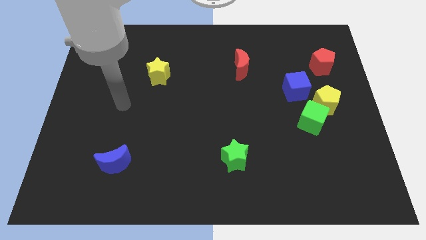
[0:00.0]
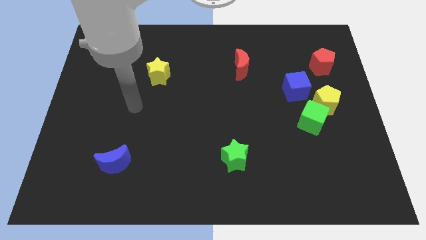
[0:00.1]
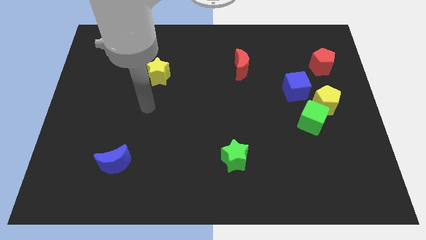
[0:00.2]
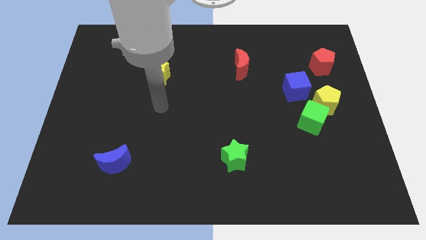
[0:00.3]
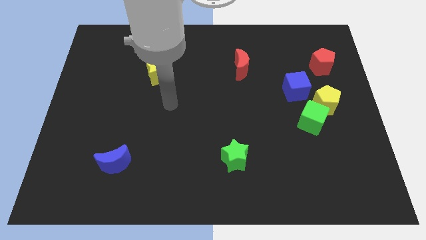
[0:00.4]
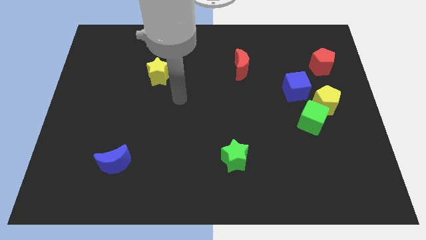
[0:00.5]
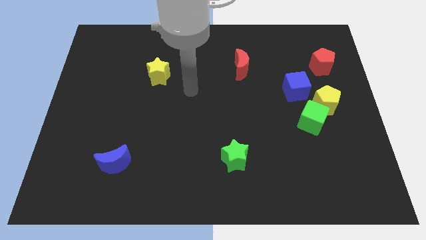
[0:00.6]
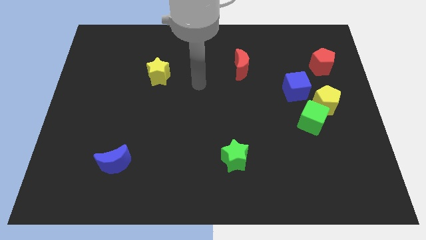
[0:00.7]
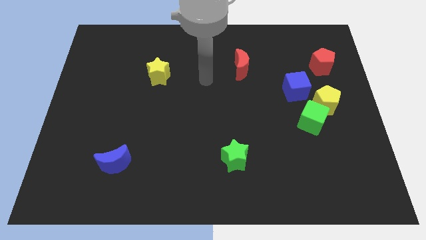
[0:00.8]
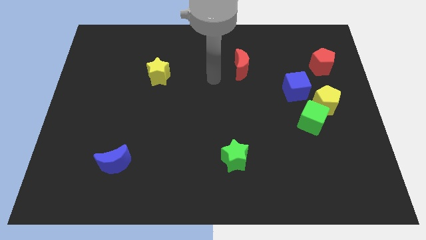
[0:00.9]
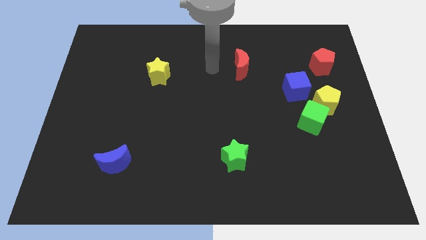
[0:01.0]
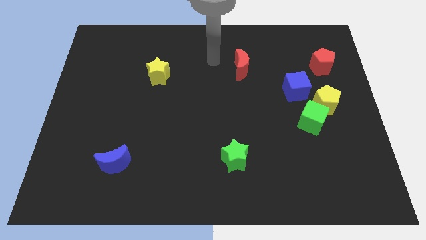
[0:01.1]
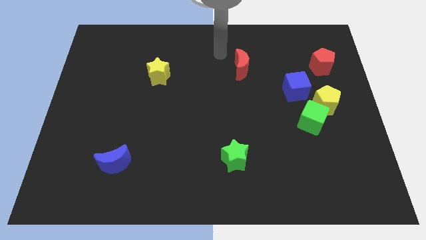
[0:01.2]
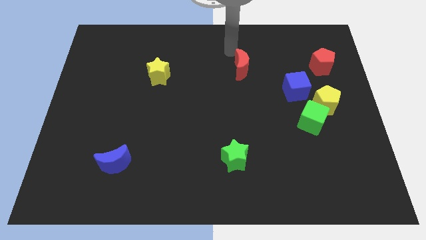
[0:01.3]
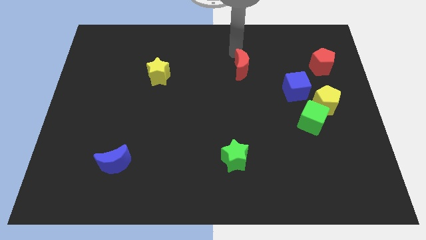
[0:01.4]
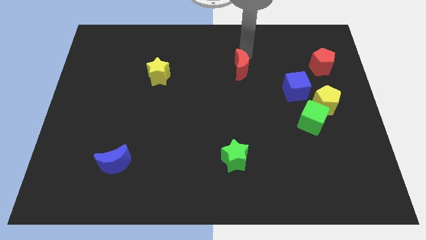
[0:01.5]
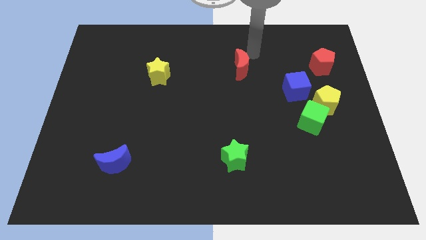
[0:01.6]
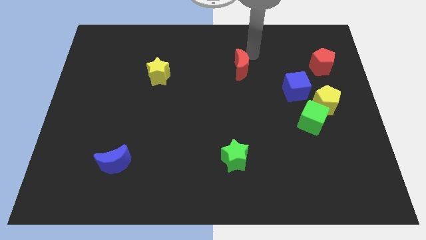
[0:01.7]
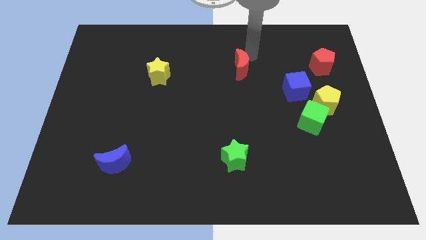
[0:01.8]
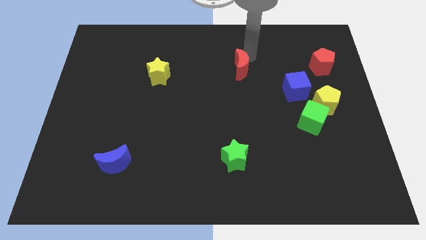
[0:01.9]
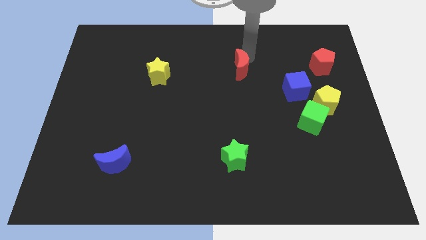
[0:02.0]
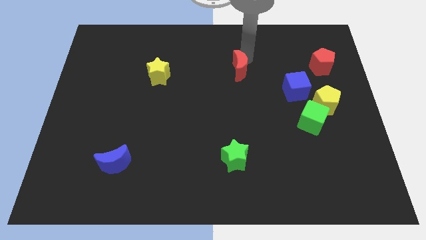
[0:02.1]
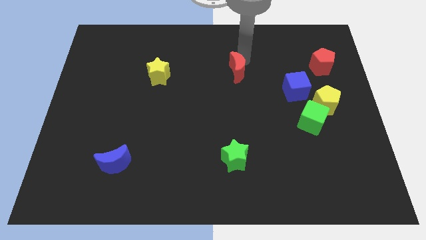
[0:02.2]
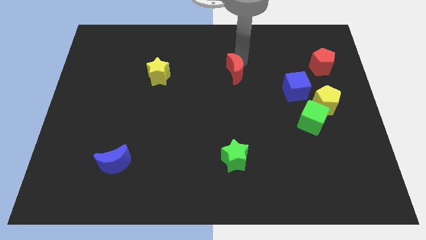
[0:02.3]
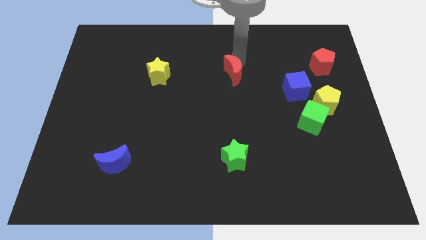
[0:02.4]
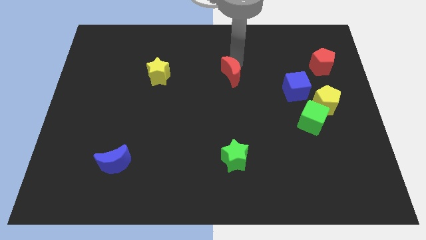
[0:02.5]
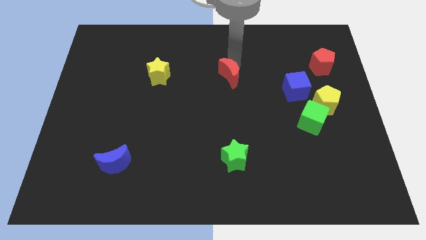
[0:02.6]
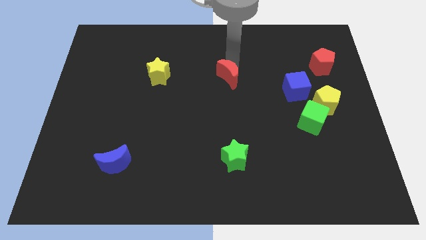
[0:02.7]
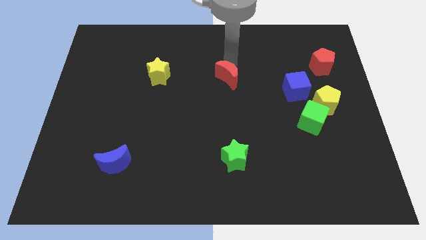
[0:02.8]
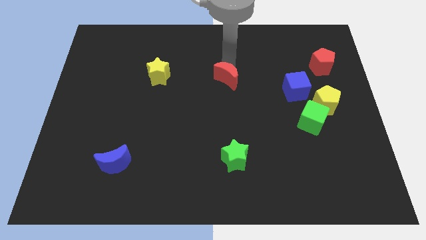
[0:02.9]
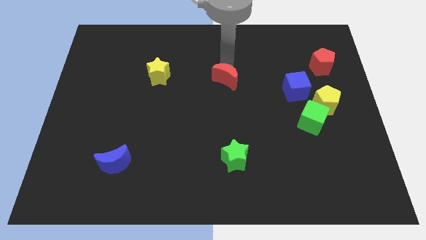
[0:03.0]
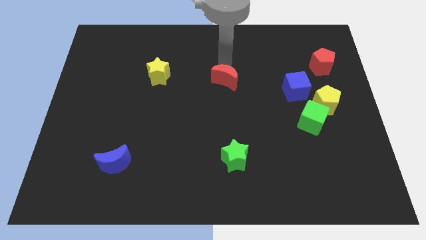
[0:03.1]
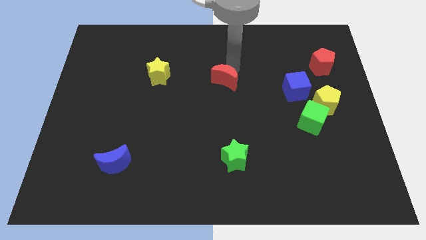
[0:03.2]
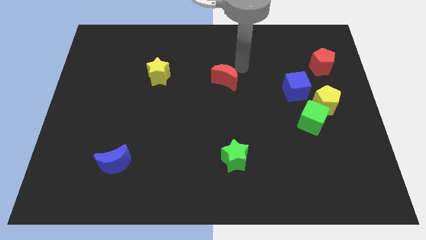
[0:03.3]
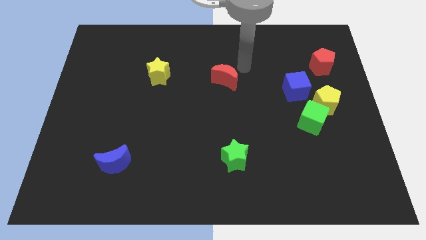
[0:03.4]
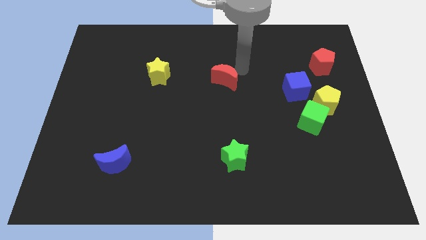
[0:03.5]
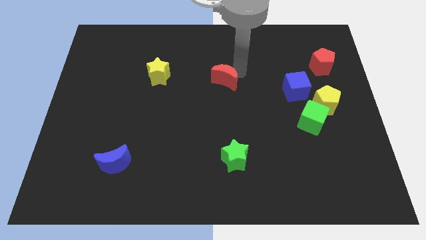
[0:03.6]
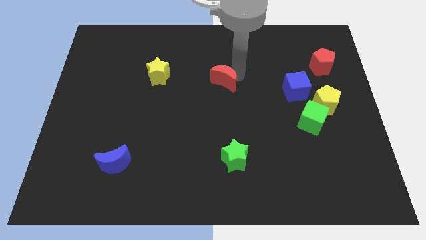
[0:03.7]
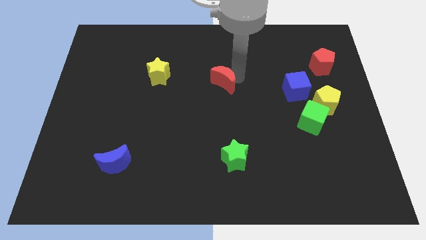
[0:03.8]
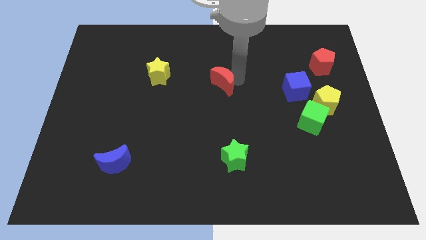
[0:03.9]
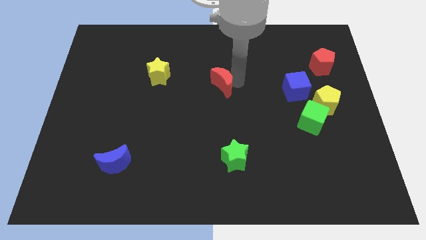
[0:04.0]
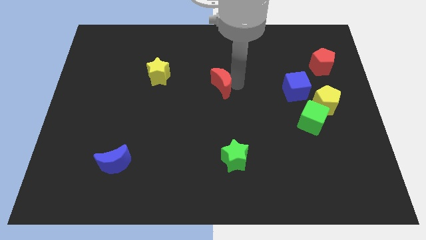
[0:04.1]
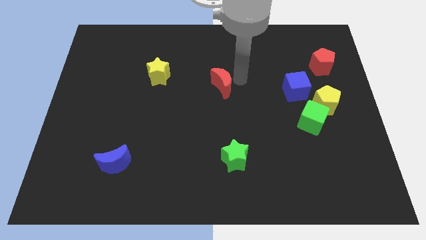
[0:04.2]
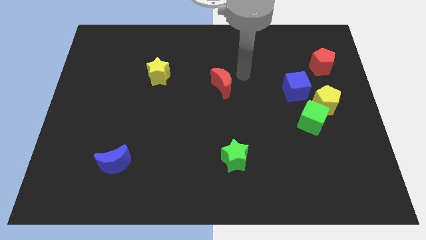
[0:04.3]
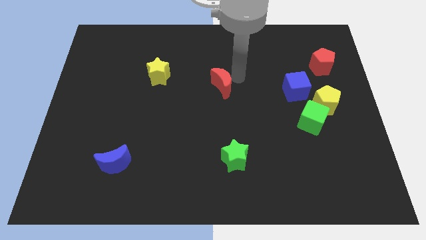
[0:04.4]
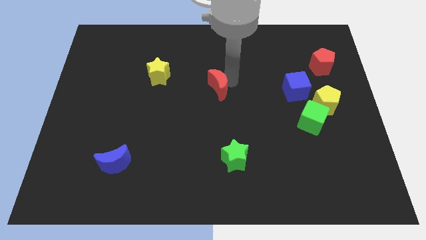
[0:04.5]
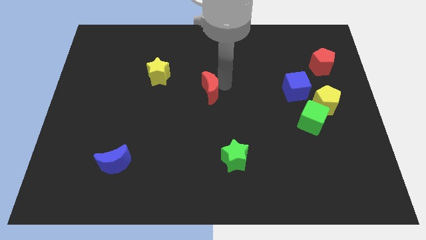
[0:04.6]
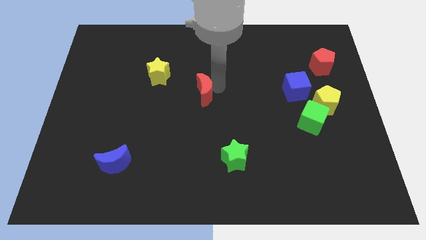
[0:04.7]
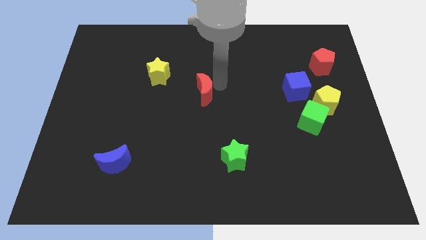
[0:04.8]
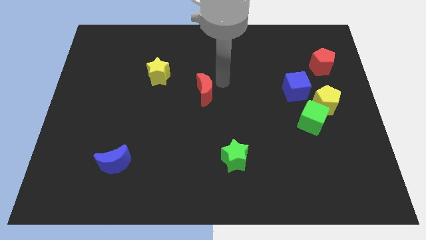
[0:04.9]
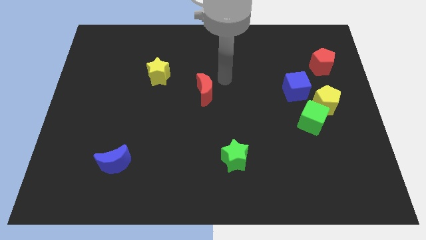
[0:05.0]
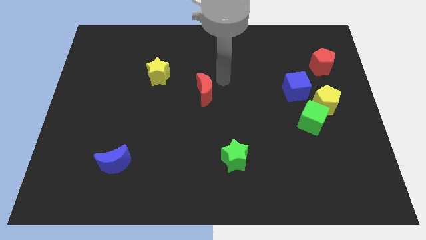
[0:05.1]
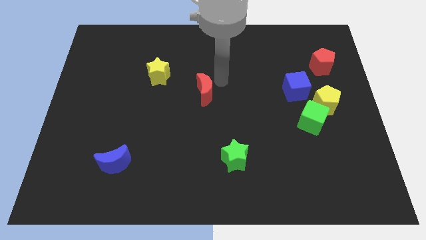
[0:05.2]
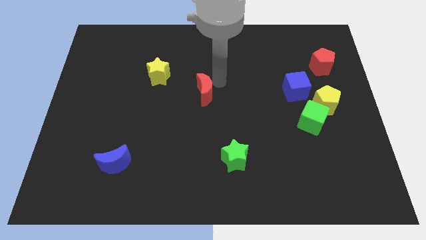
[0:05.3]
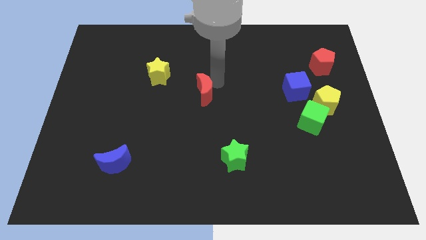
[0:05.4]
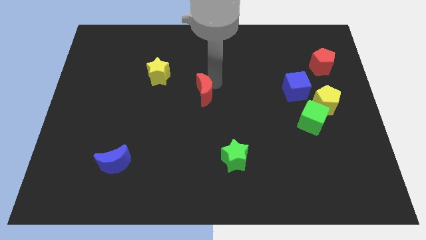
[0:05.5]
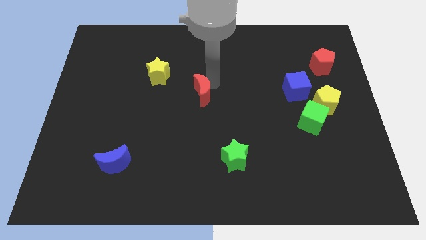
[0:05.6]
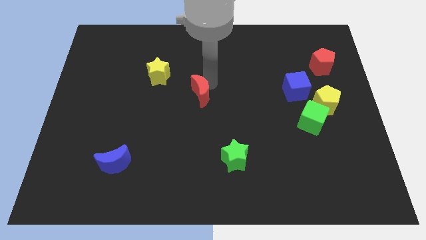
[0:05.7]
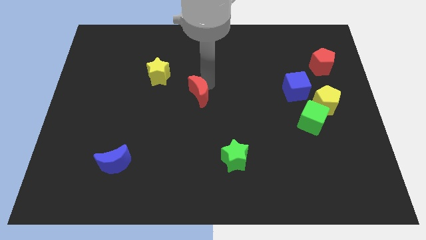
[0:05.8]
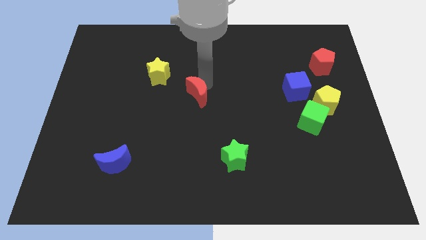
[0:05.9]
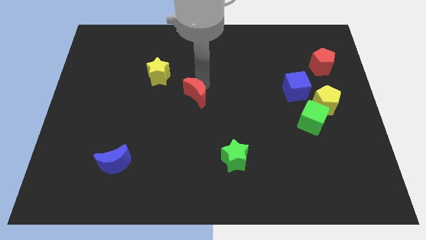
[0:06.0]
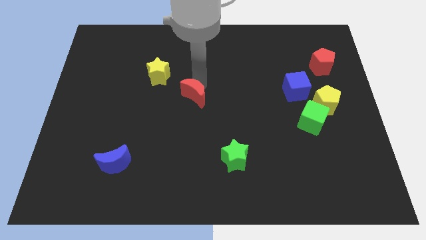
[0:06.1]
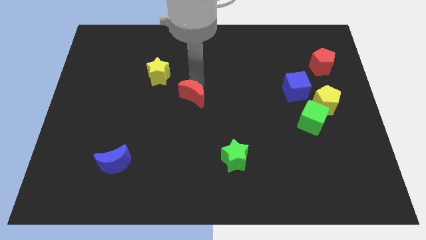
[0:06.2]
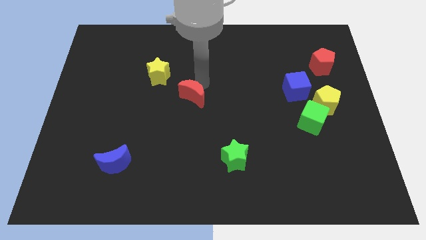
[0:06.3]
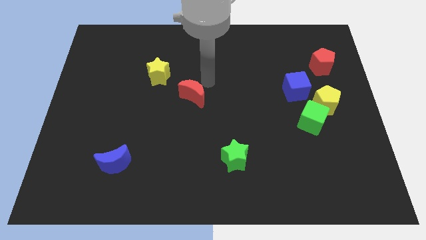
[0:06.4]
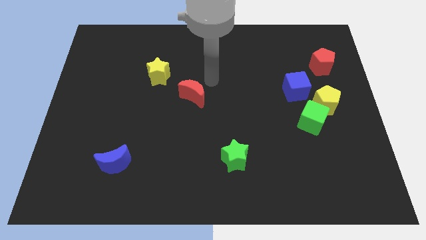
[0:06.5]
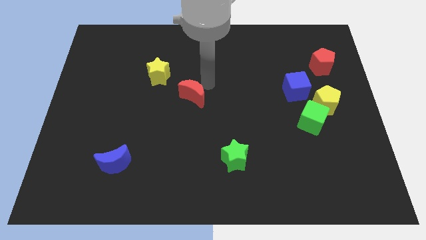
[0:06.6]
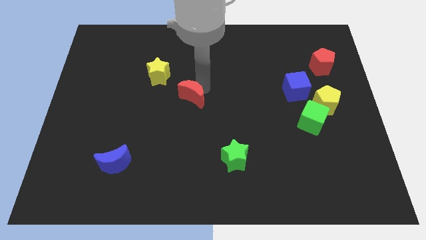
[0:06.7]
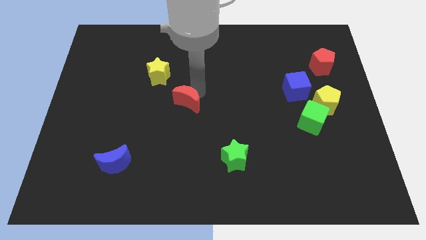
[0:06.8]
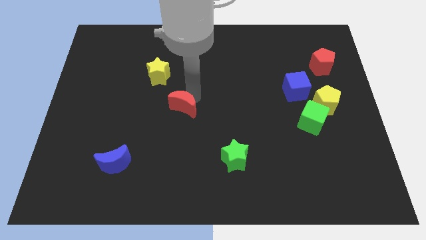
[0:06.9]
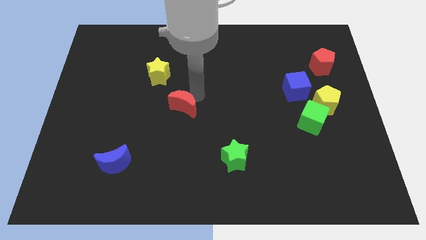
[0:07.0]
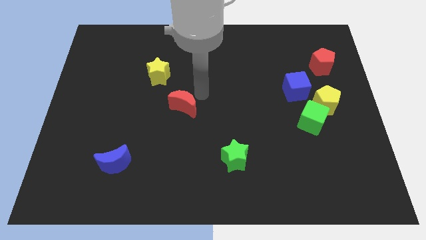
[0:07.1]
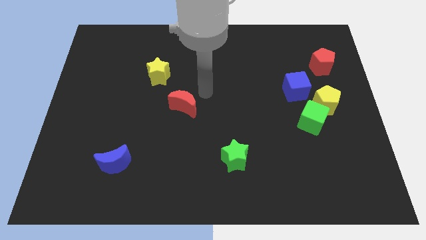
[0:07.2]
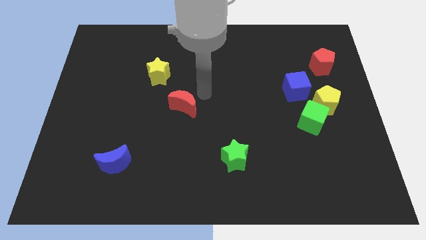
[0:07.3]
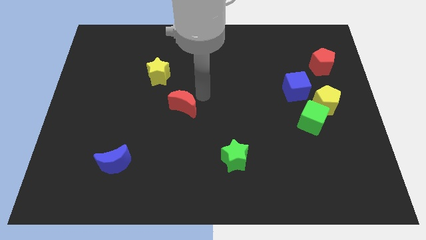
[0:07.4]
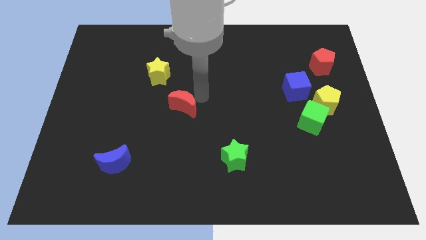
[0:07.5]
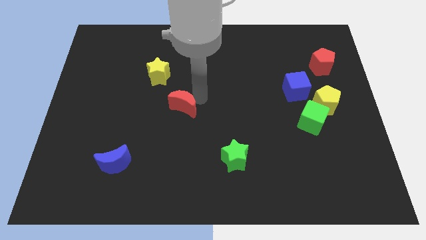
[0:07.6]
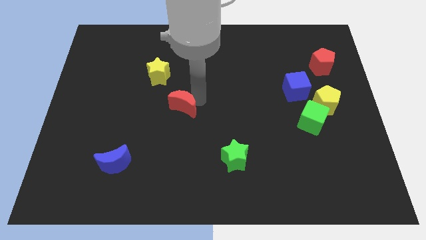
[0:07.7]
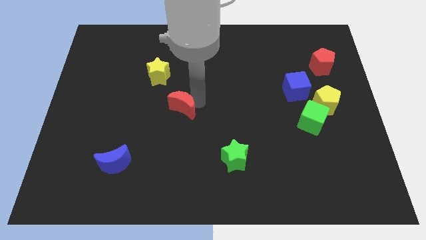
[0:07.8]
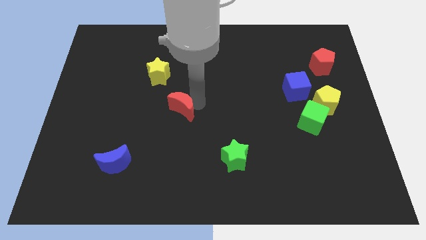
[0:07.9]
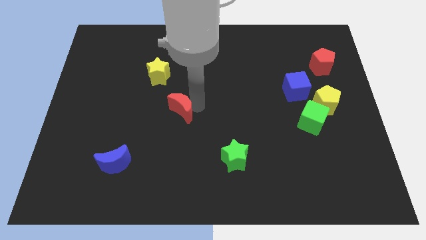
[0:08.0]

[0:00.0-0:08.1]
move the red moon downwards and then left
